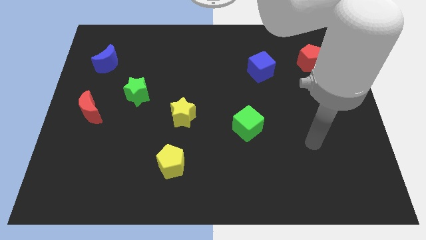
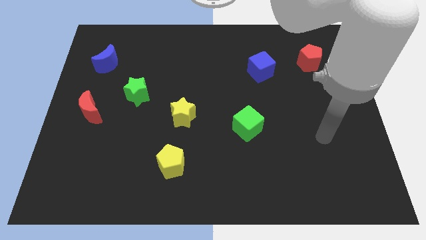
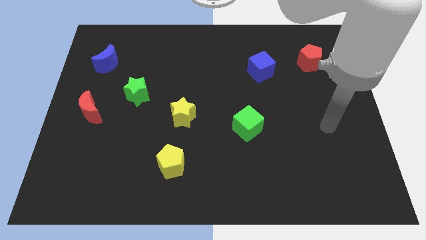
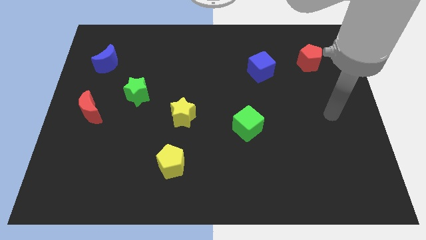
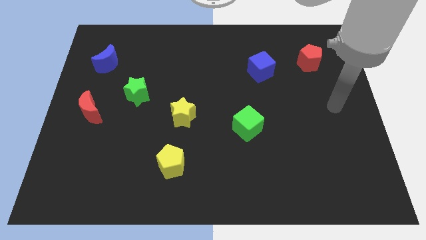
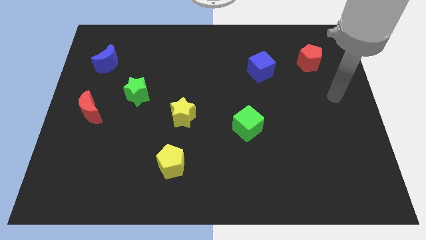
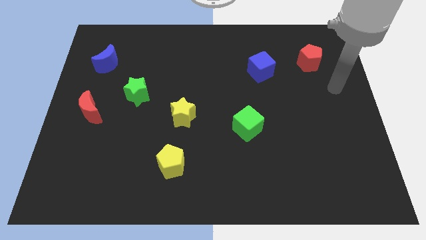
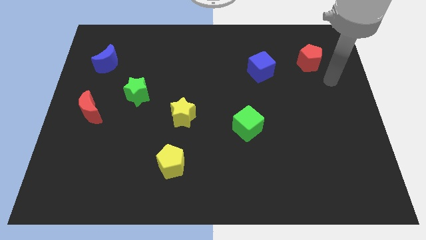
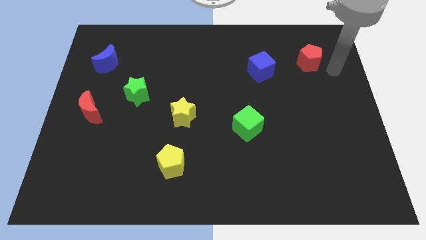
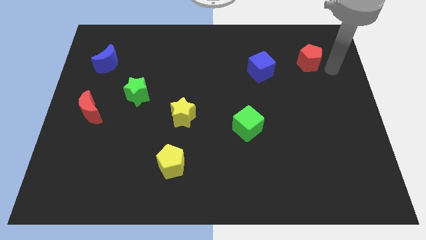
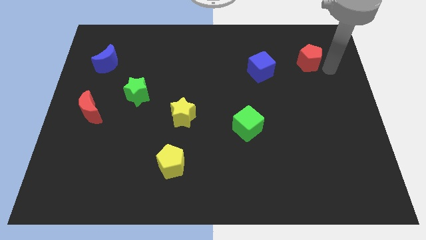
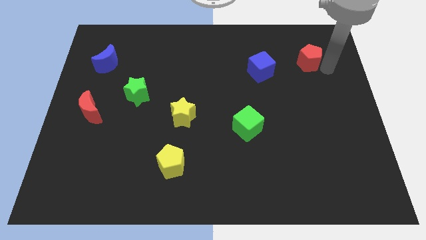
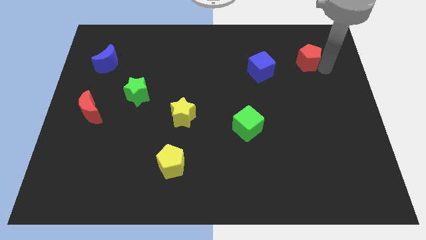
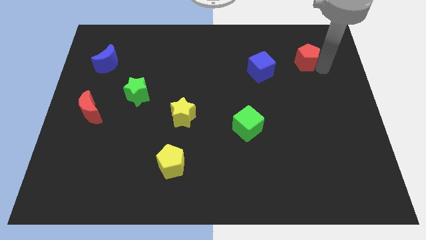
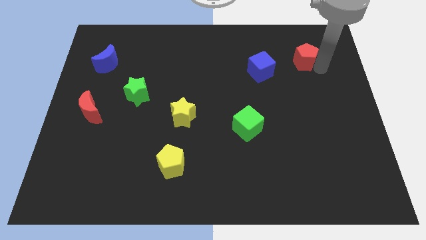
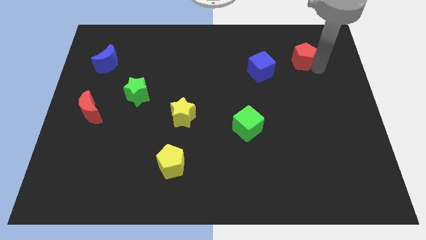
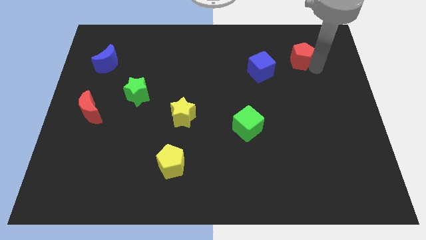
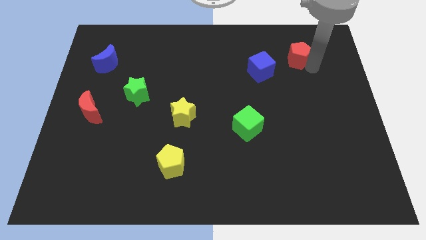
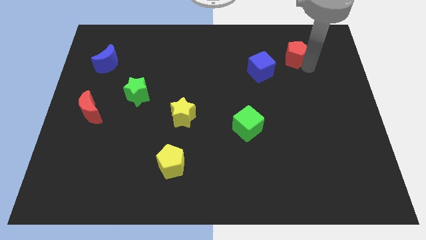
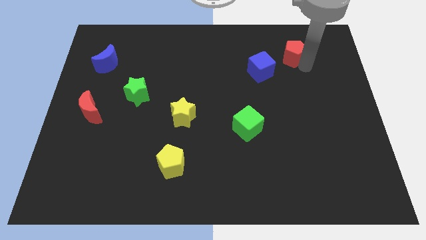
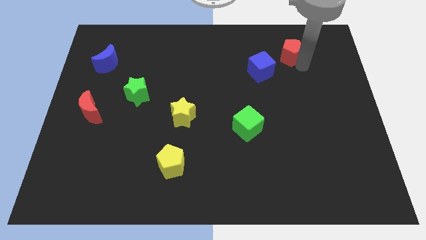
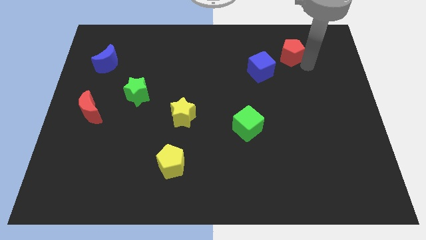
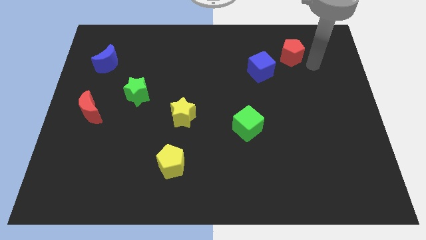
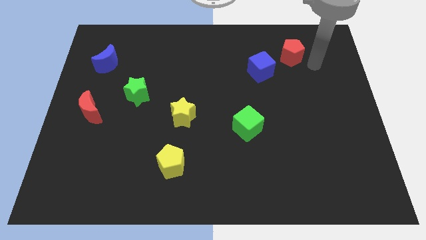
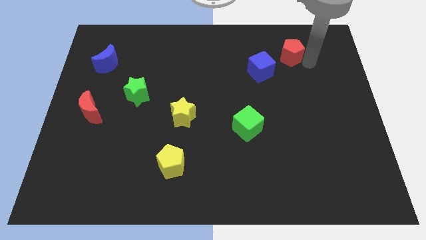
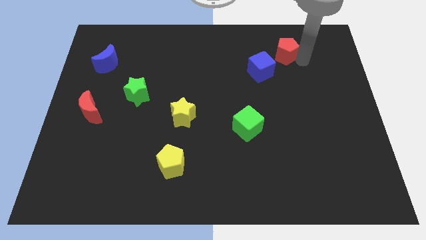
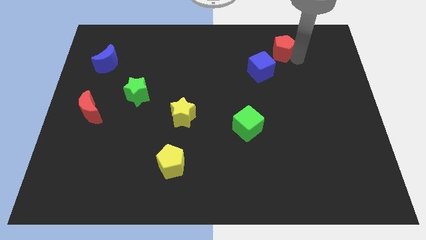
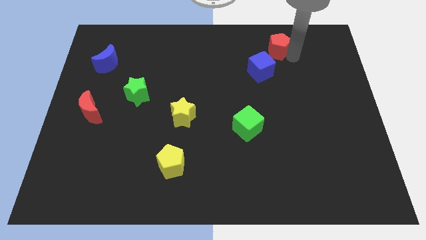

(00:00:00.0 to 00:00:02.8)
slightly move the red pentagon left

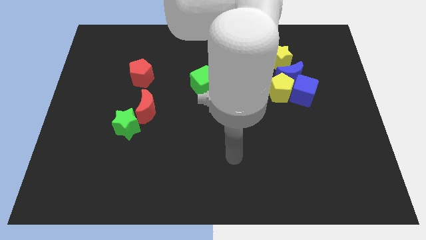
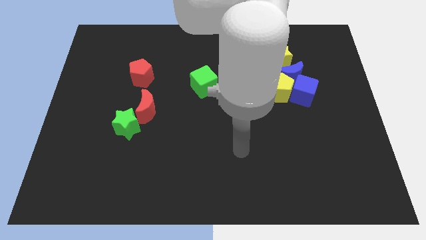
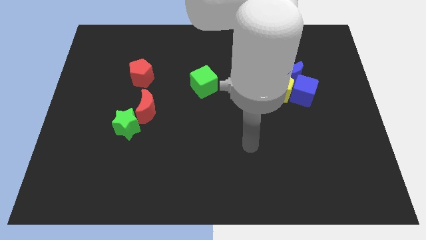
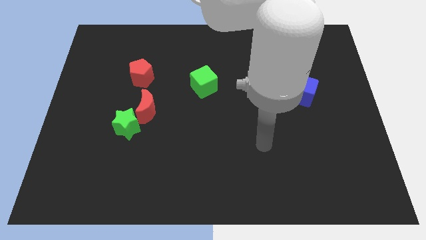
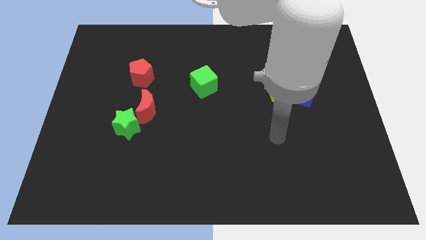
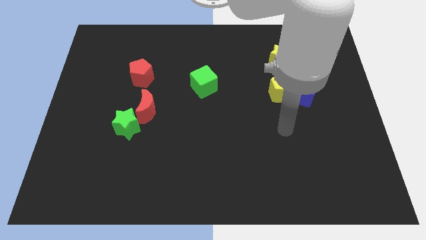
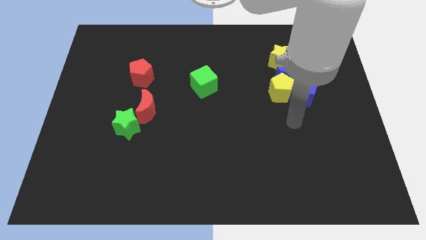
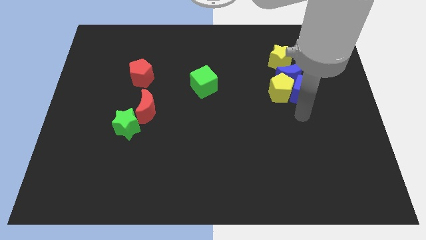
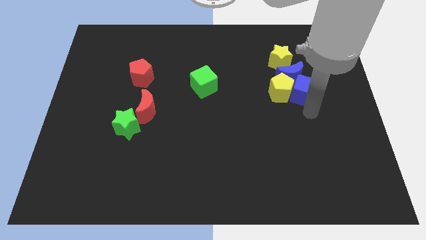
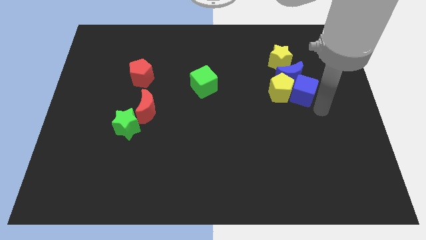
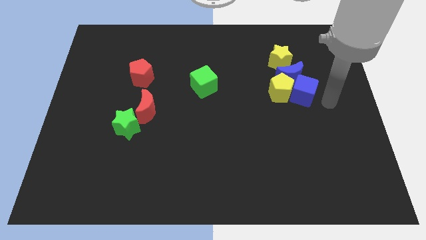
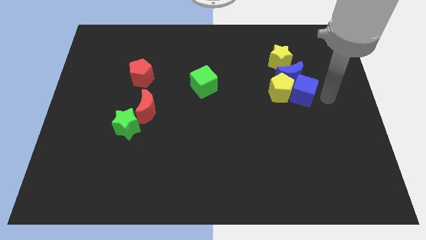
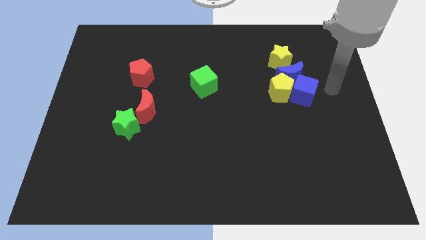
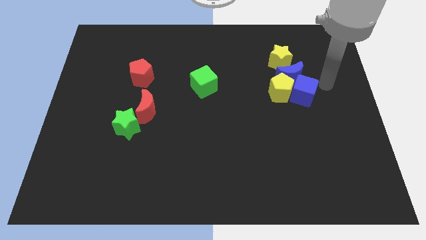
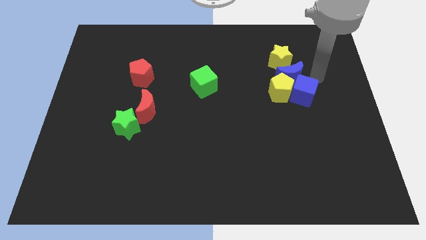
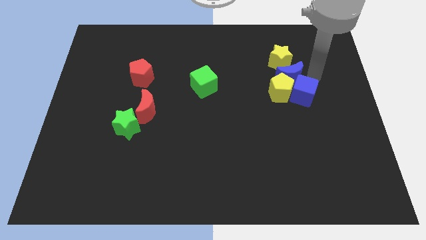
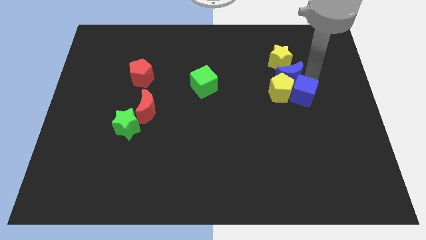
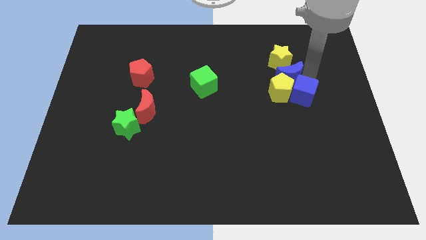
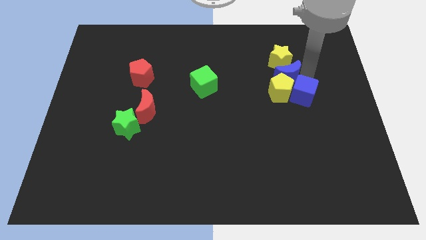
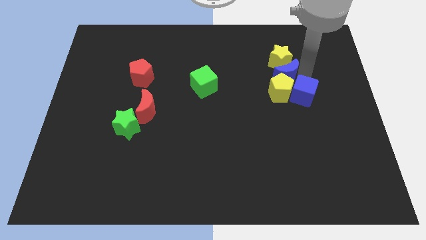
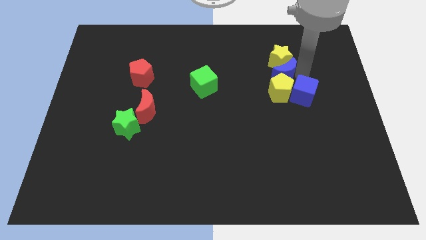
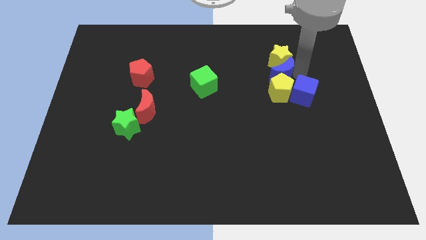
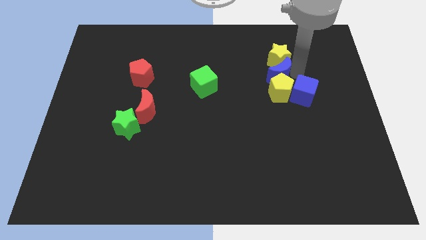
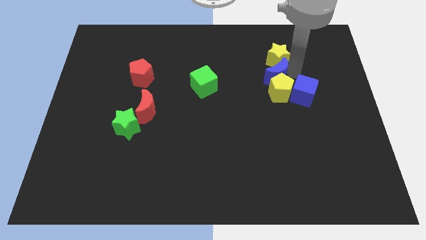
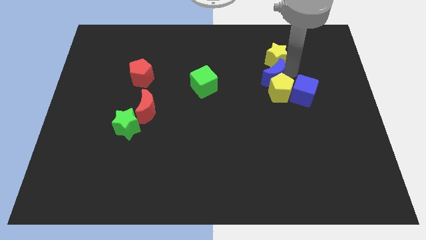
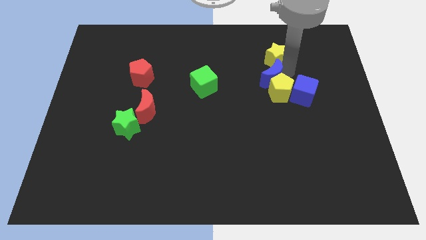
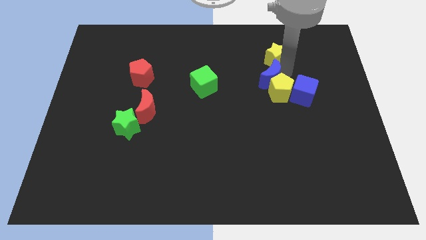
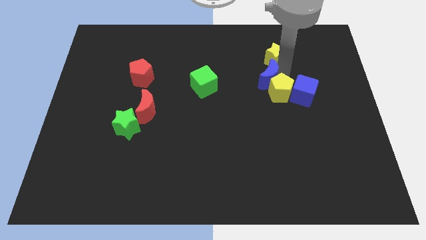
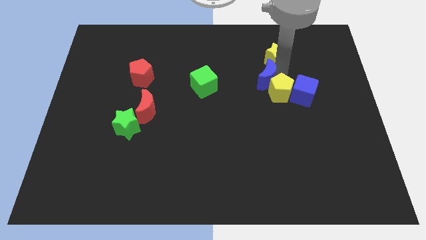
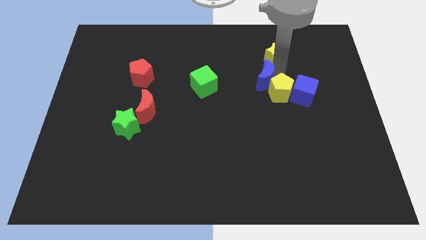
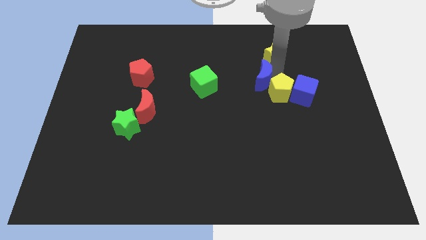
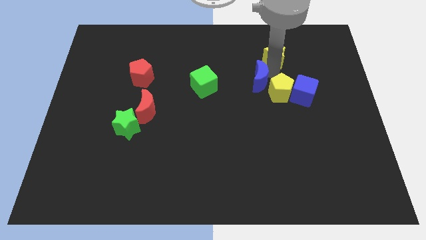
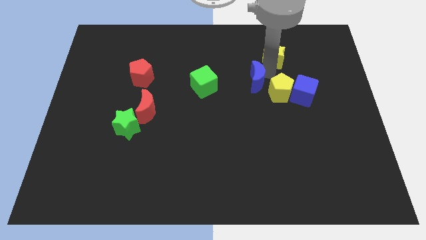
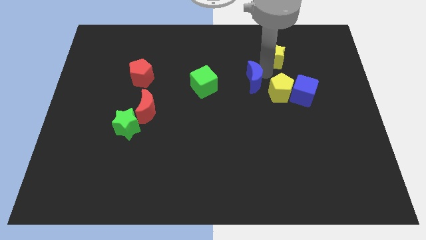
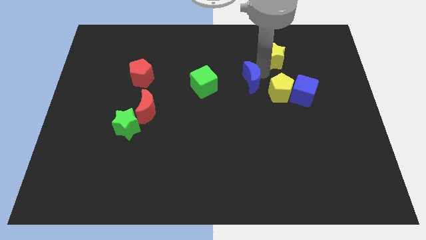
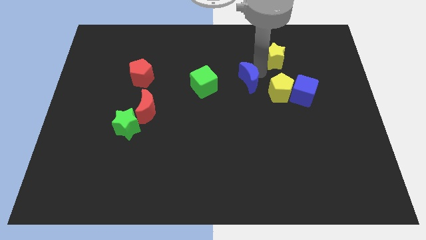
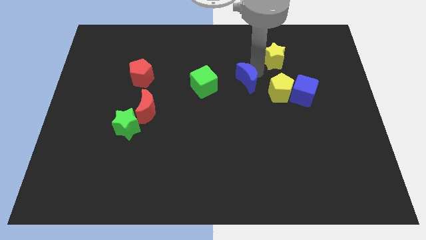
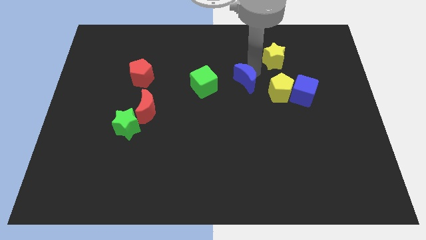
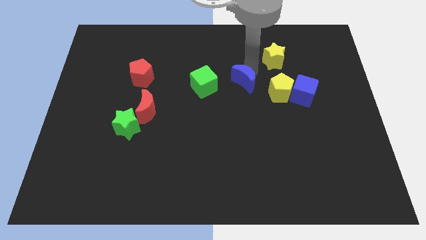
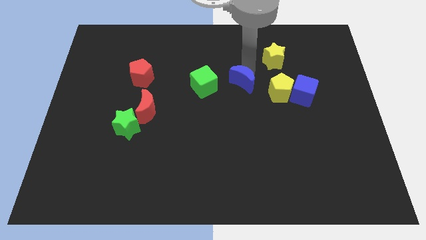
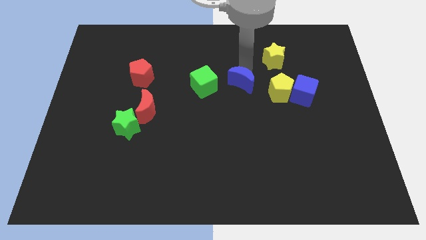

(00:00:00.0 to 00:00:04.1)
slide the blue moon downwards and left diagonally slightly

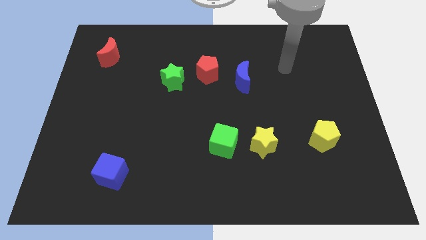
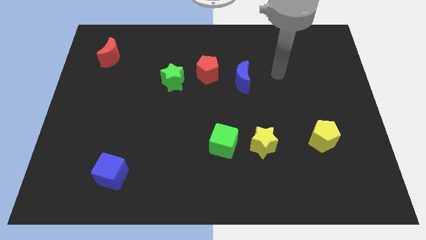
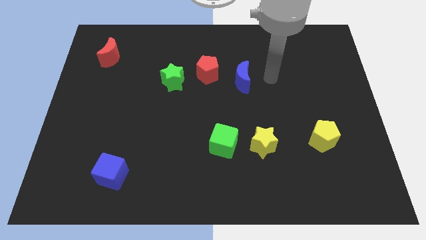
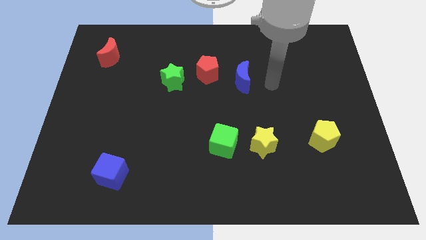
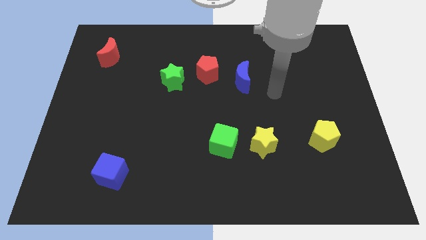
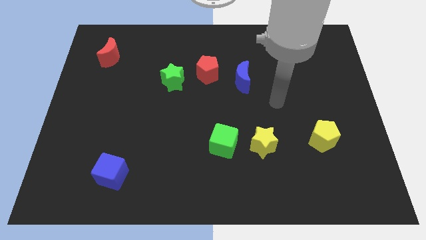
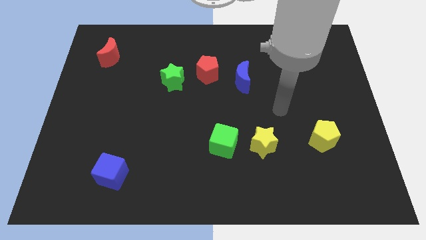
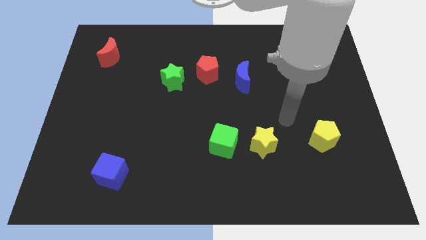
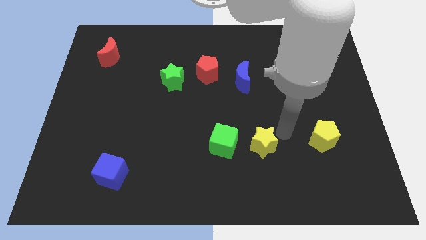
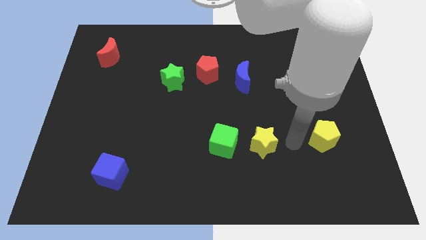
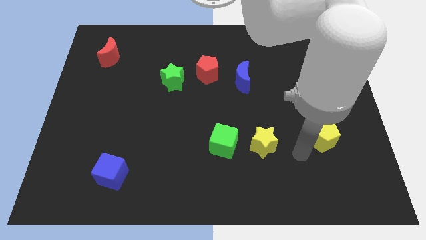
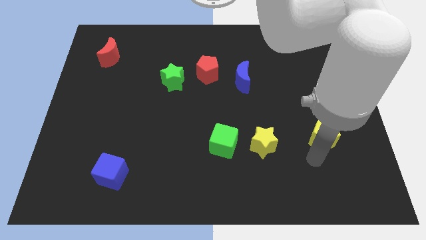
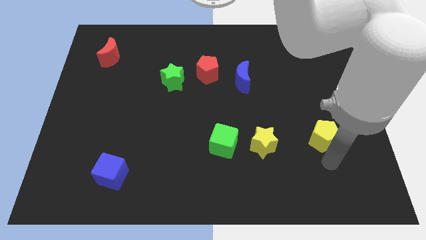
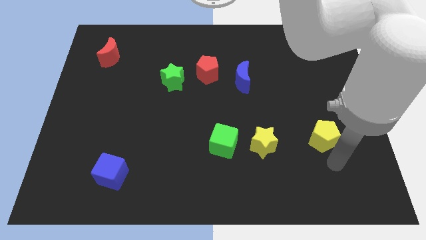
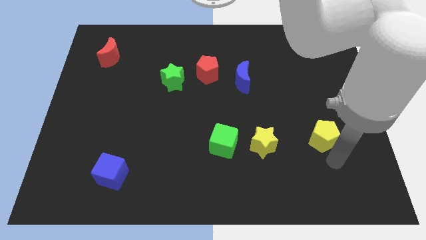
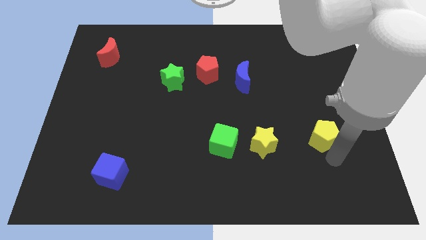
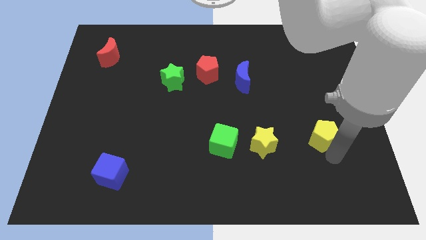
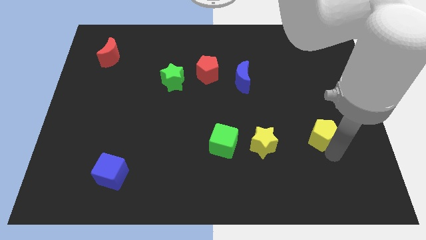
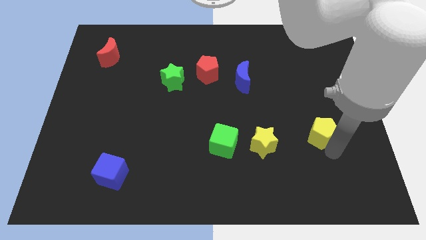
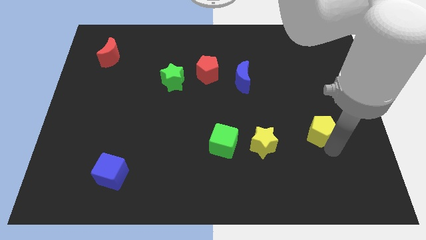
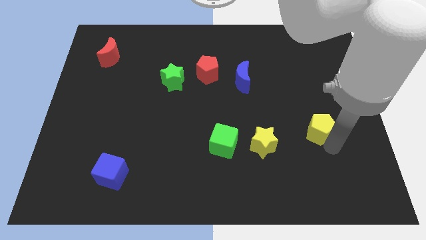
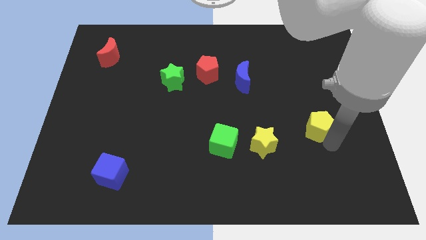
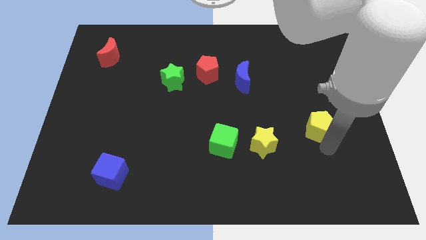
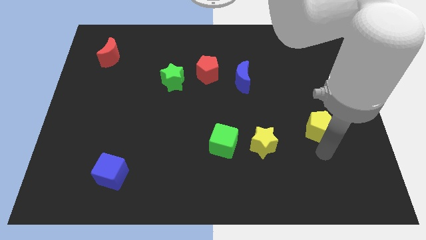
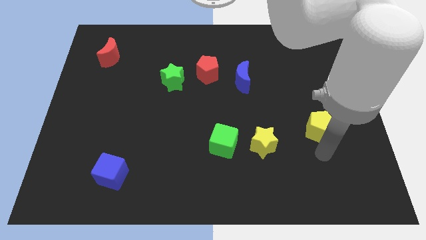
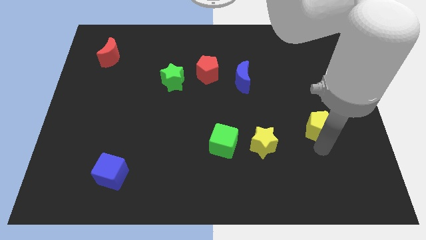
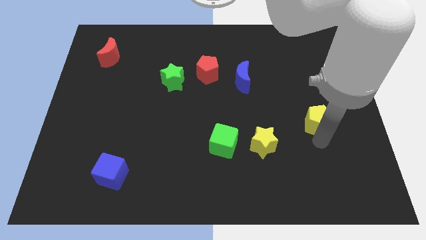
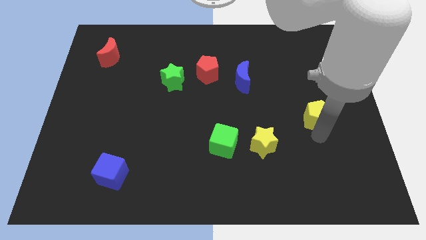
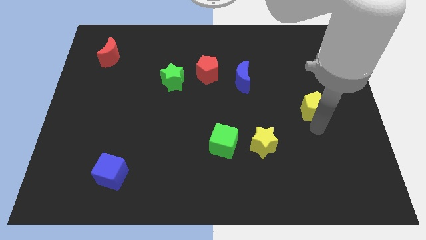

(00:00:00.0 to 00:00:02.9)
slightly slide the yellow pentagon upwards
